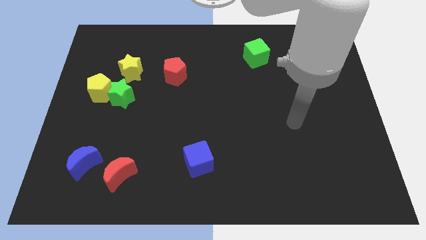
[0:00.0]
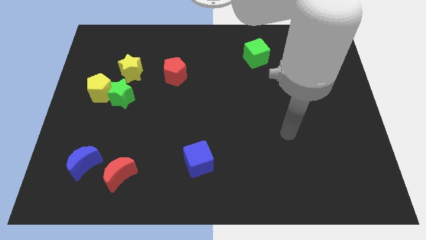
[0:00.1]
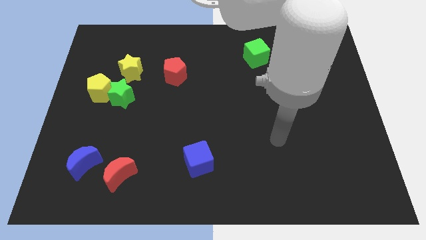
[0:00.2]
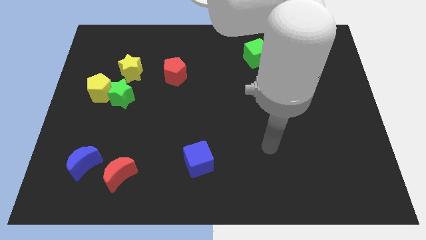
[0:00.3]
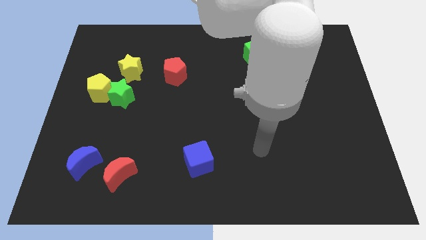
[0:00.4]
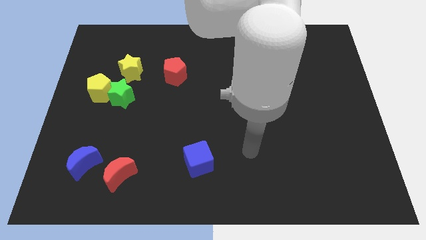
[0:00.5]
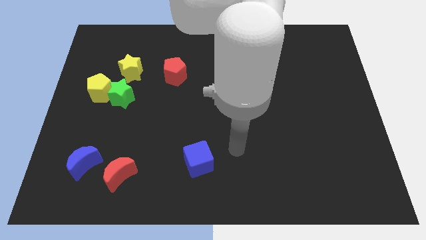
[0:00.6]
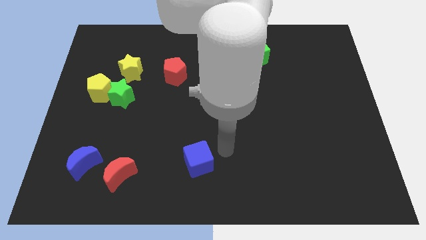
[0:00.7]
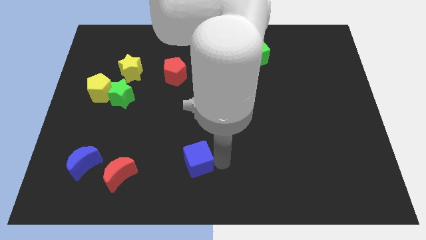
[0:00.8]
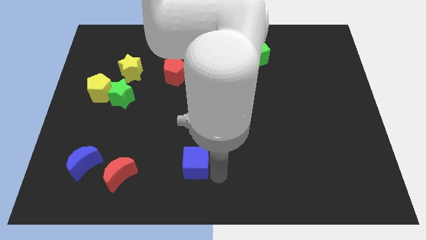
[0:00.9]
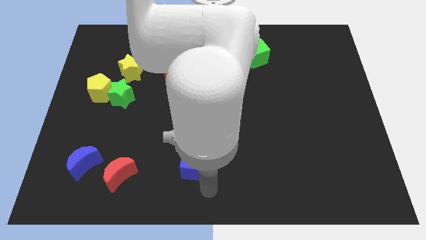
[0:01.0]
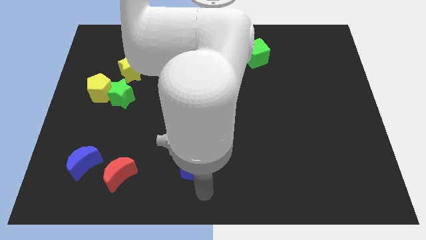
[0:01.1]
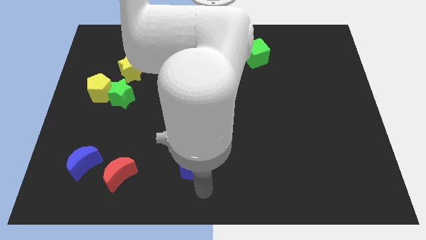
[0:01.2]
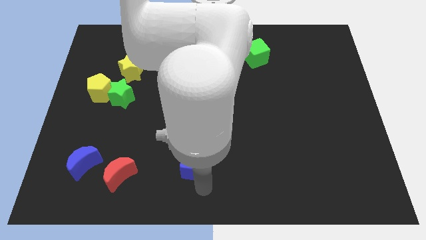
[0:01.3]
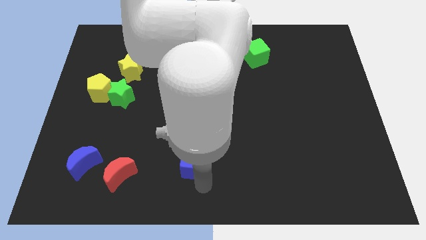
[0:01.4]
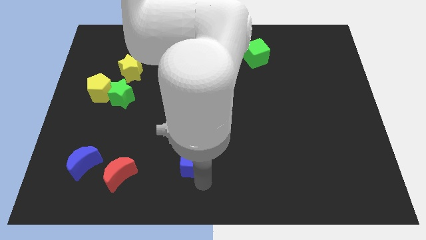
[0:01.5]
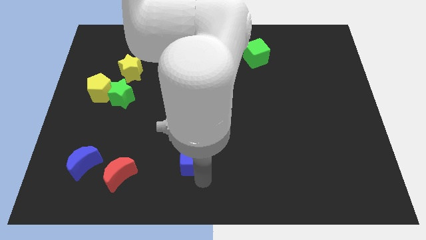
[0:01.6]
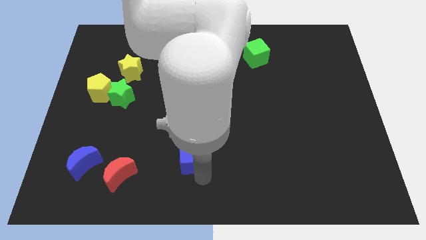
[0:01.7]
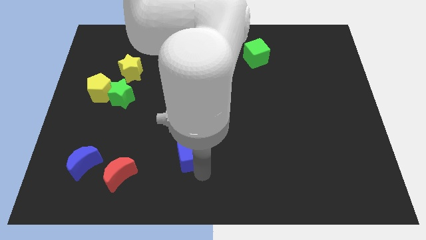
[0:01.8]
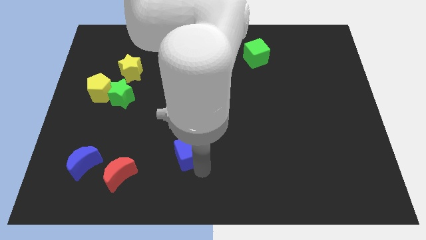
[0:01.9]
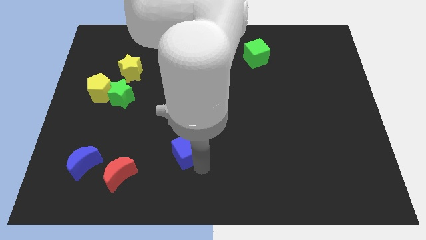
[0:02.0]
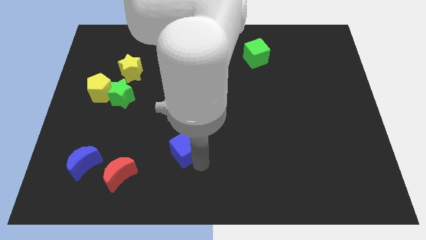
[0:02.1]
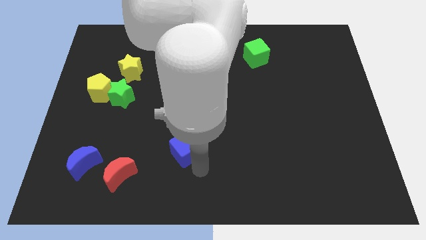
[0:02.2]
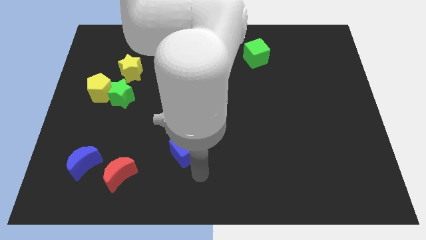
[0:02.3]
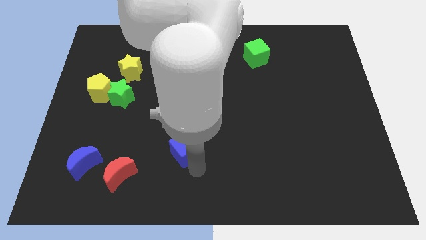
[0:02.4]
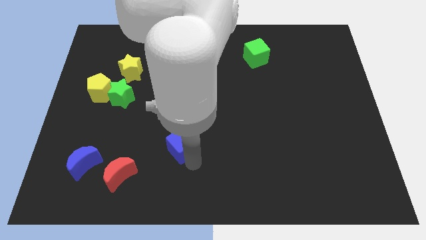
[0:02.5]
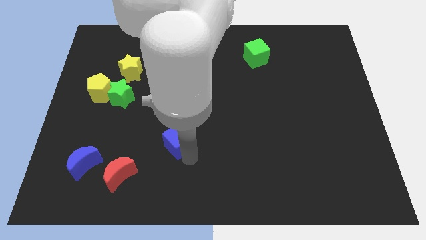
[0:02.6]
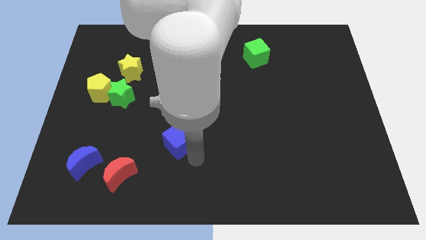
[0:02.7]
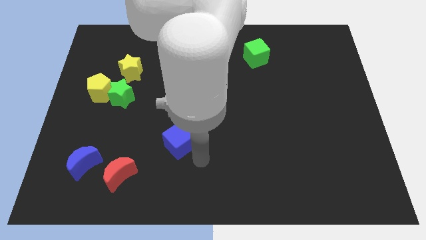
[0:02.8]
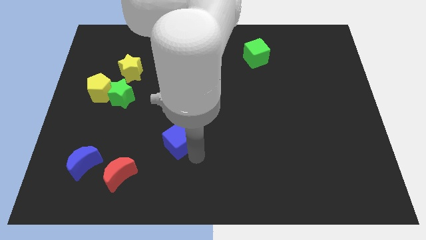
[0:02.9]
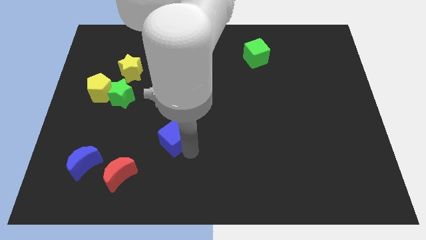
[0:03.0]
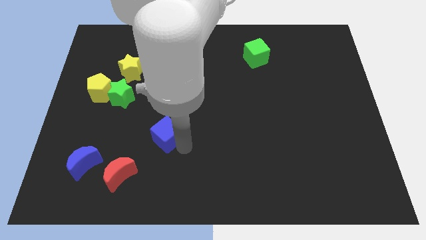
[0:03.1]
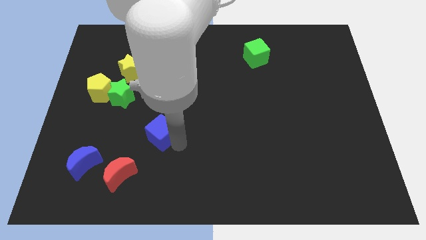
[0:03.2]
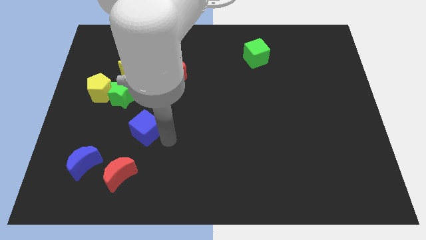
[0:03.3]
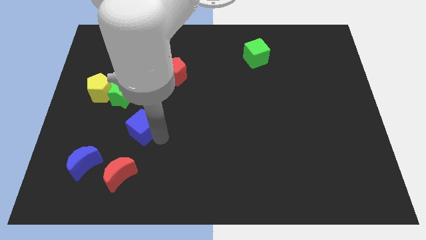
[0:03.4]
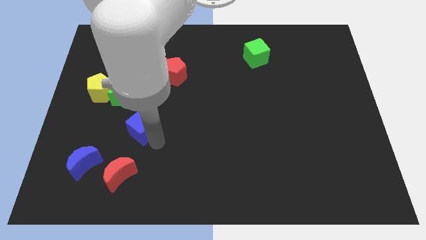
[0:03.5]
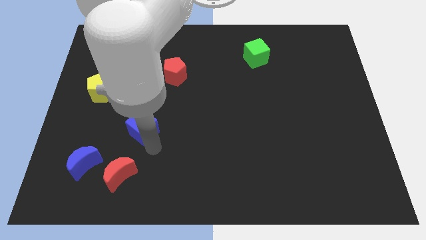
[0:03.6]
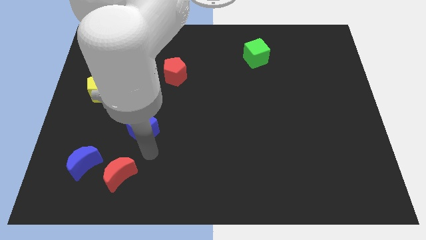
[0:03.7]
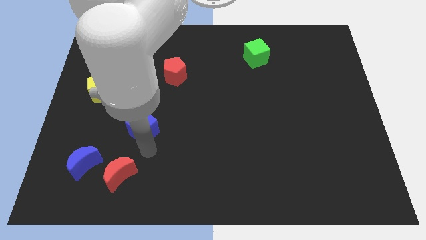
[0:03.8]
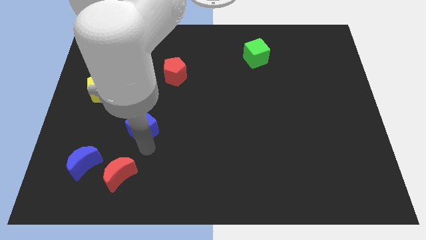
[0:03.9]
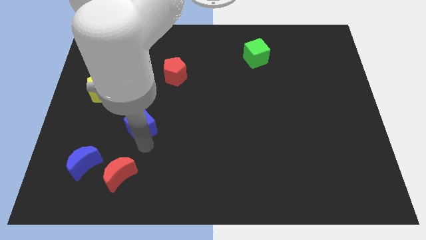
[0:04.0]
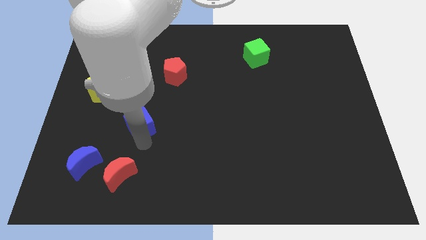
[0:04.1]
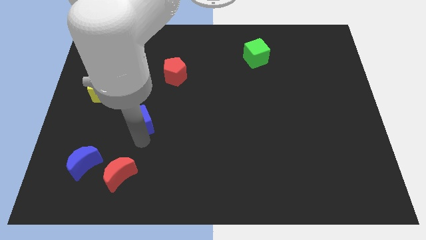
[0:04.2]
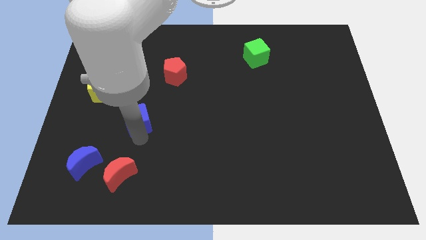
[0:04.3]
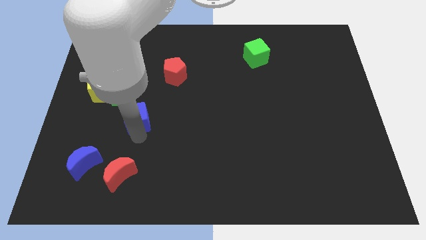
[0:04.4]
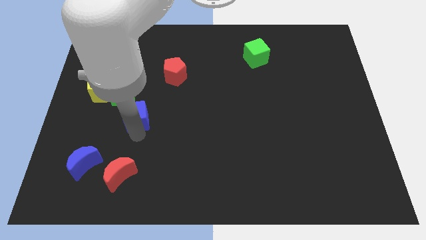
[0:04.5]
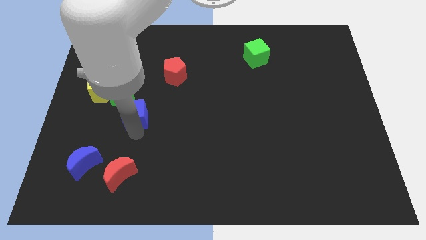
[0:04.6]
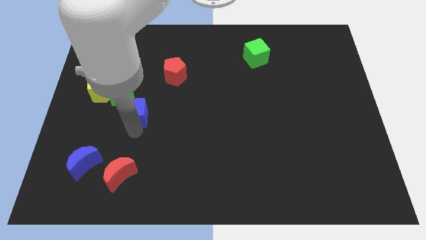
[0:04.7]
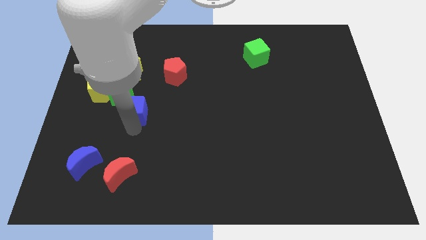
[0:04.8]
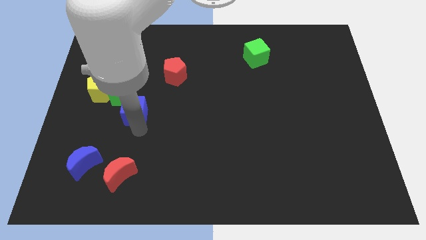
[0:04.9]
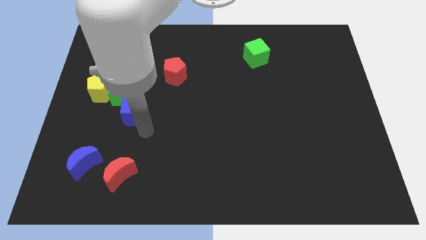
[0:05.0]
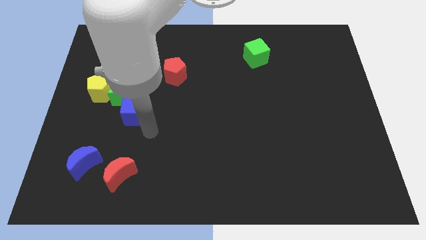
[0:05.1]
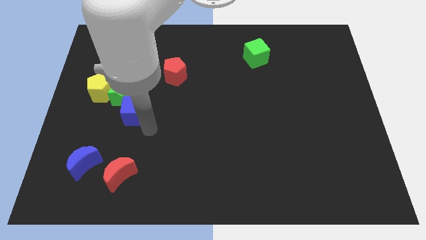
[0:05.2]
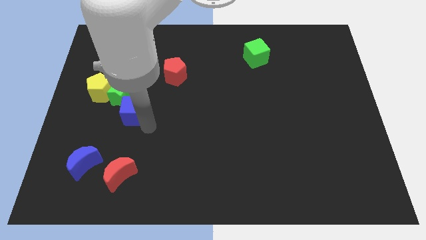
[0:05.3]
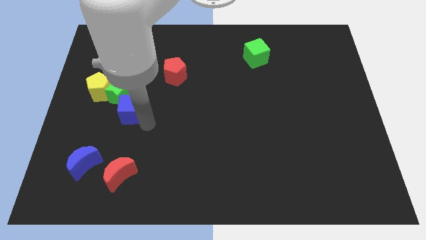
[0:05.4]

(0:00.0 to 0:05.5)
slide the blue cube close to the green star

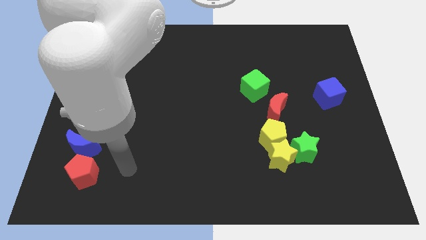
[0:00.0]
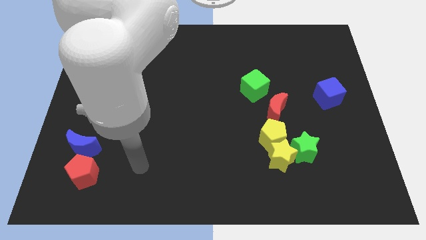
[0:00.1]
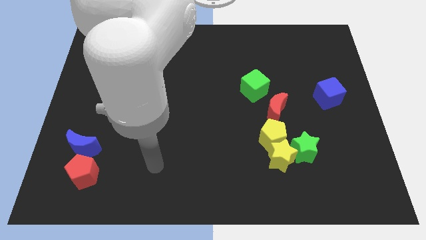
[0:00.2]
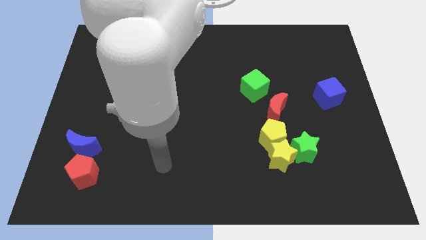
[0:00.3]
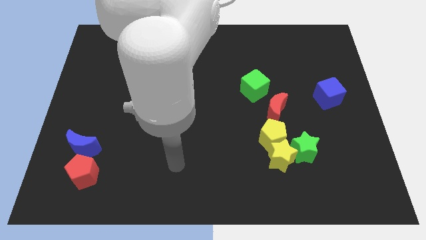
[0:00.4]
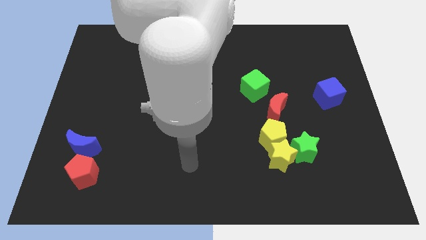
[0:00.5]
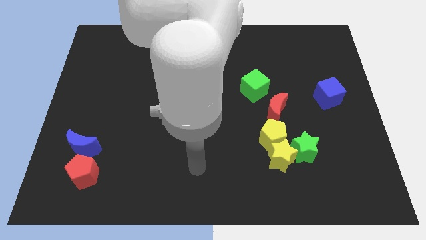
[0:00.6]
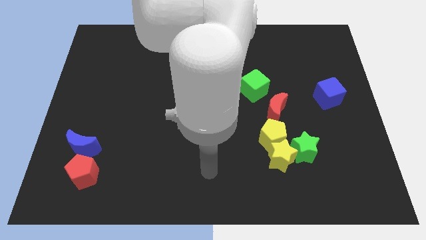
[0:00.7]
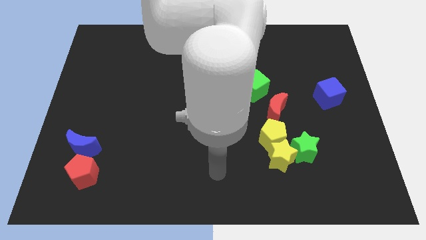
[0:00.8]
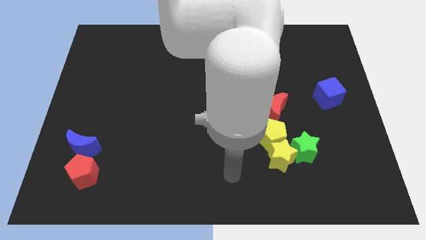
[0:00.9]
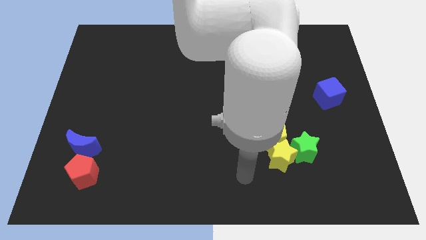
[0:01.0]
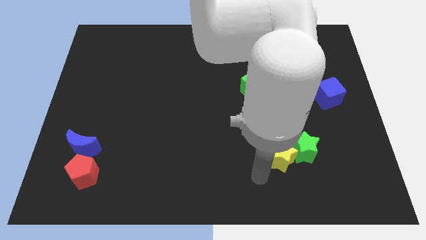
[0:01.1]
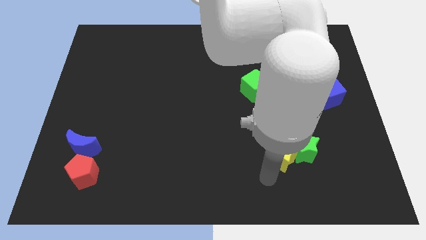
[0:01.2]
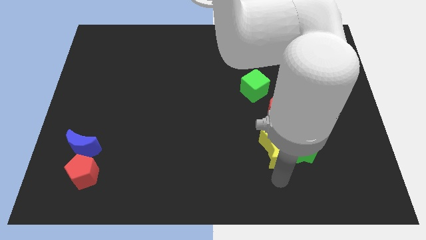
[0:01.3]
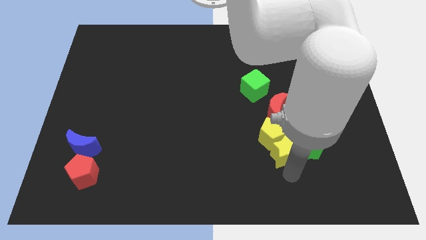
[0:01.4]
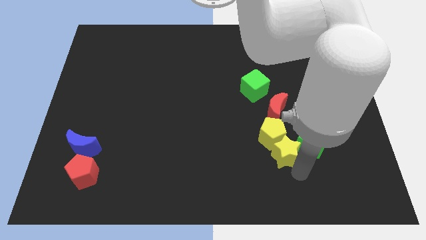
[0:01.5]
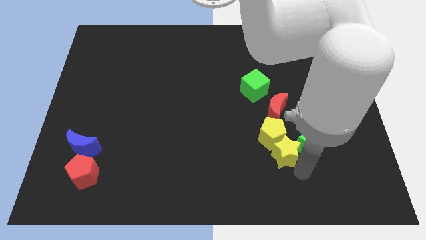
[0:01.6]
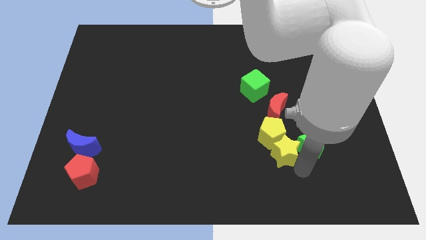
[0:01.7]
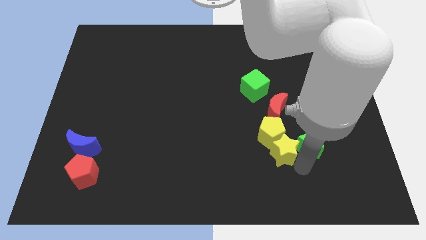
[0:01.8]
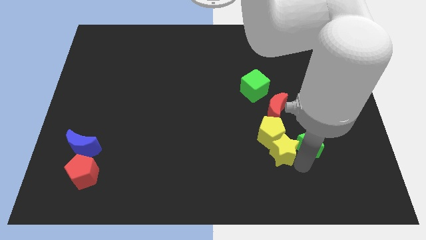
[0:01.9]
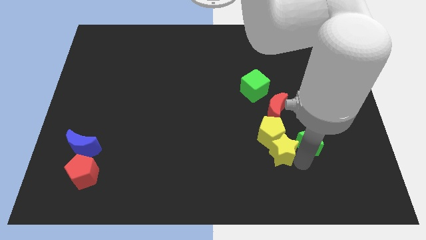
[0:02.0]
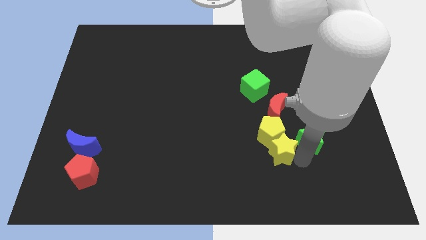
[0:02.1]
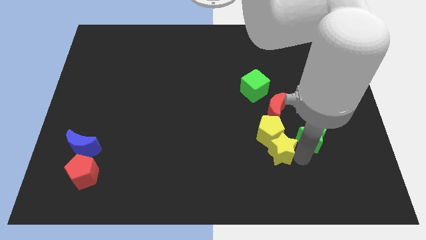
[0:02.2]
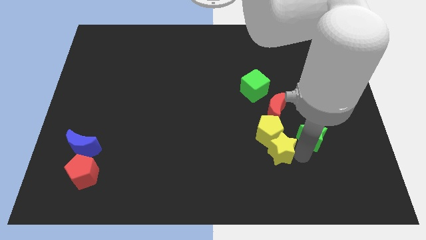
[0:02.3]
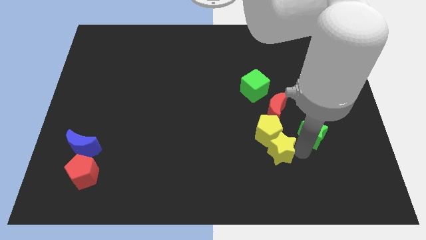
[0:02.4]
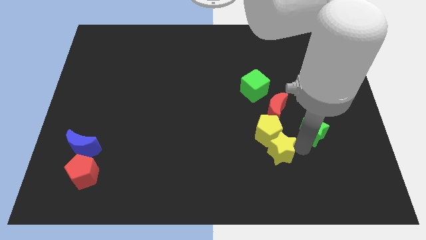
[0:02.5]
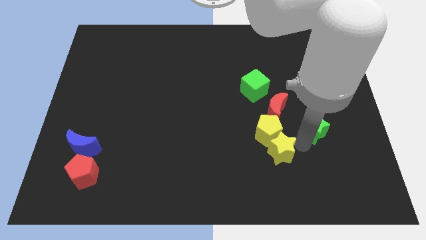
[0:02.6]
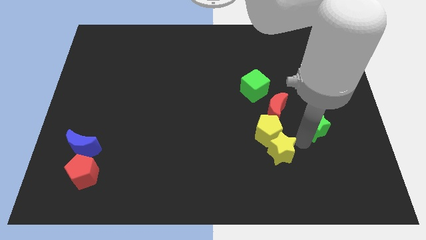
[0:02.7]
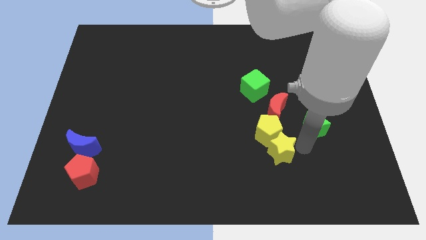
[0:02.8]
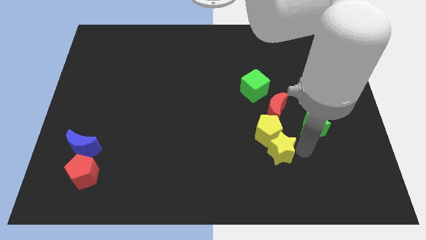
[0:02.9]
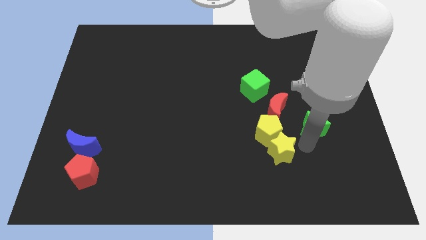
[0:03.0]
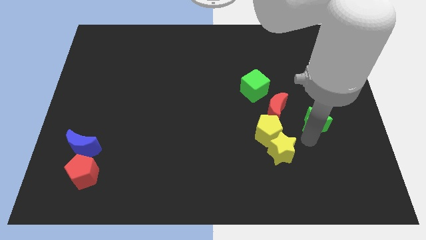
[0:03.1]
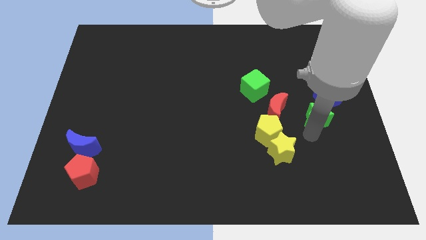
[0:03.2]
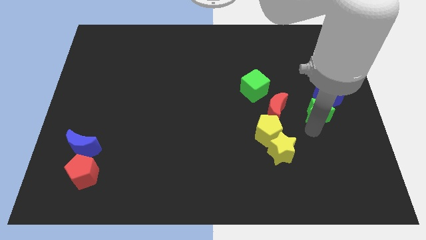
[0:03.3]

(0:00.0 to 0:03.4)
push the green star to the blue cube
